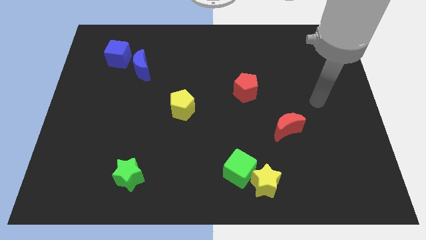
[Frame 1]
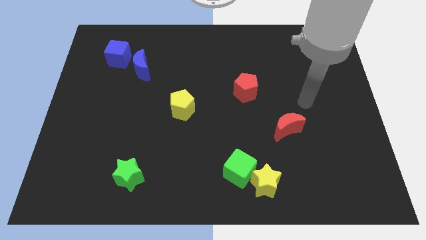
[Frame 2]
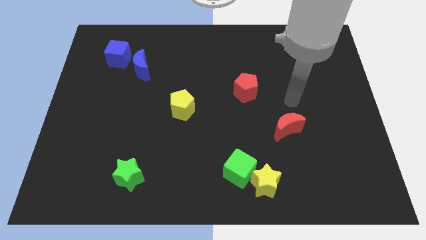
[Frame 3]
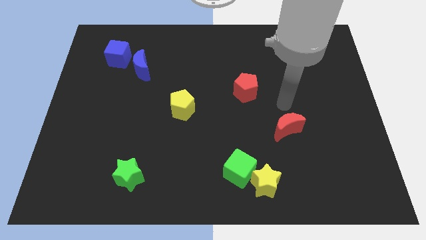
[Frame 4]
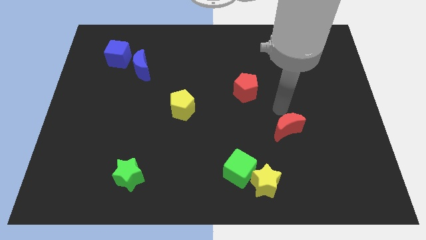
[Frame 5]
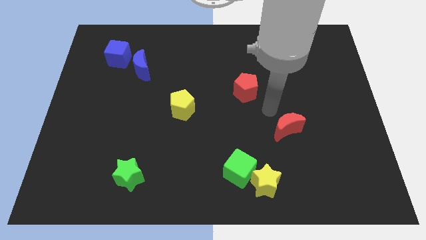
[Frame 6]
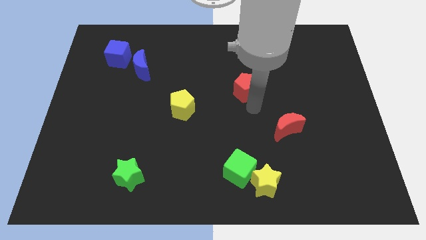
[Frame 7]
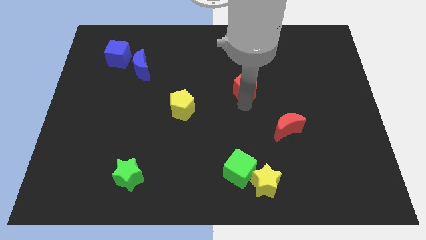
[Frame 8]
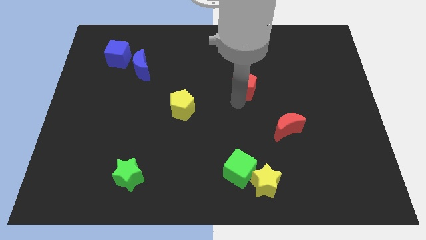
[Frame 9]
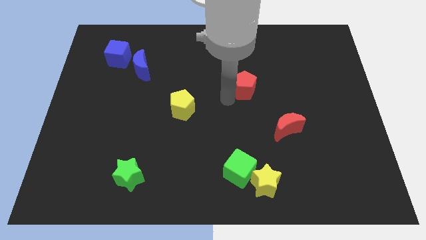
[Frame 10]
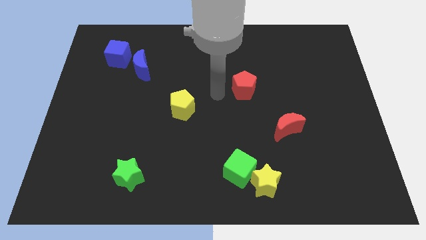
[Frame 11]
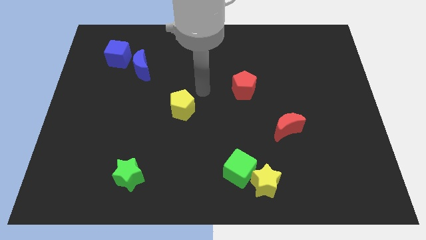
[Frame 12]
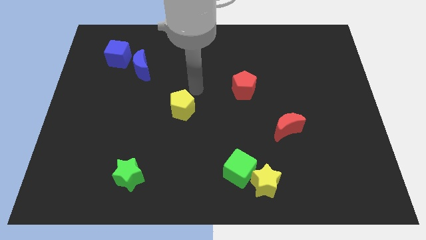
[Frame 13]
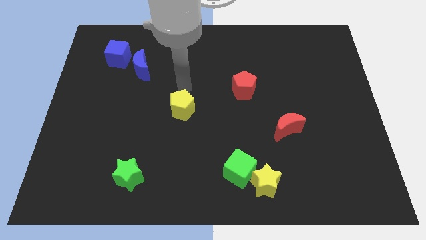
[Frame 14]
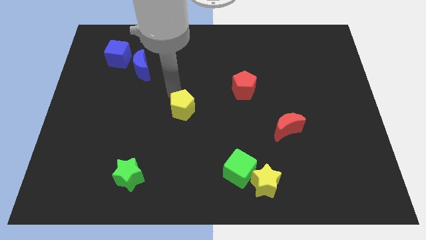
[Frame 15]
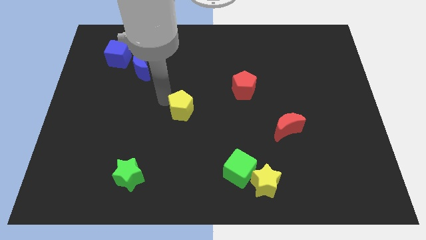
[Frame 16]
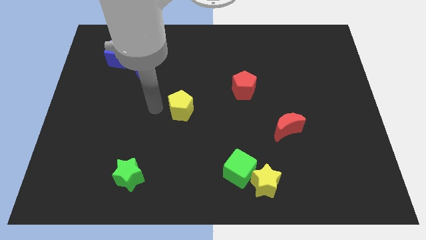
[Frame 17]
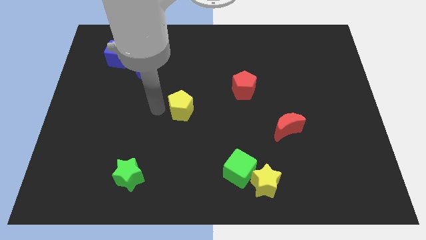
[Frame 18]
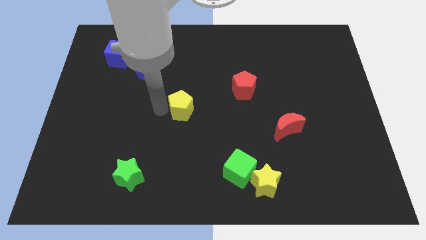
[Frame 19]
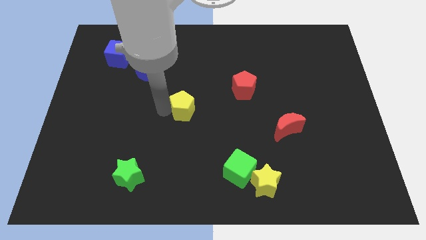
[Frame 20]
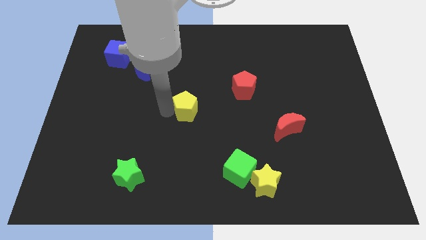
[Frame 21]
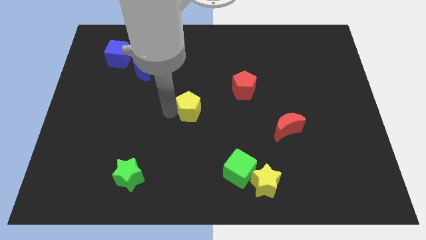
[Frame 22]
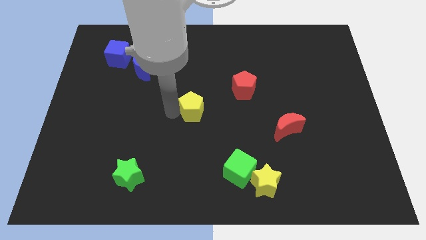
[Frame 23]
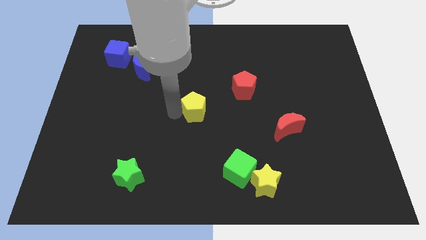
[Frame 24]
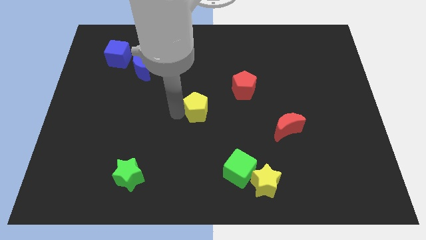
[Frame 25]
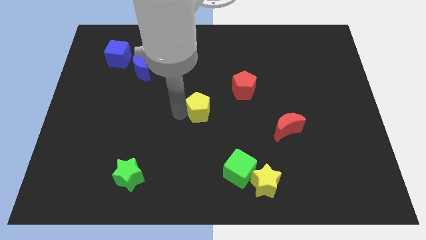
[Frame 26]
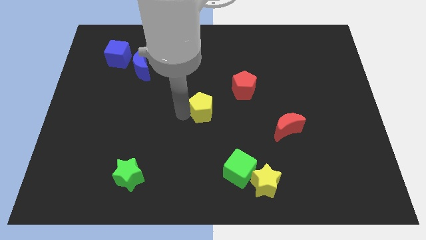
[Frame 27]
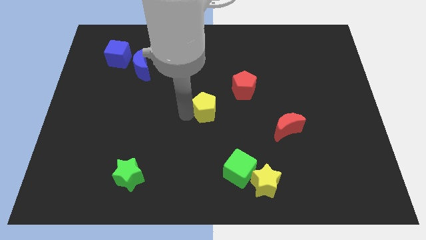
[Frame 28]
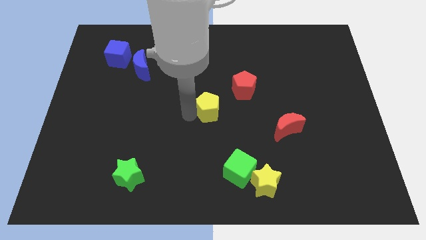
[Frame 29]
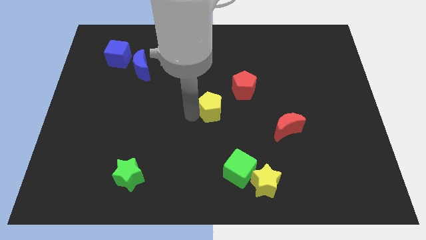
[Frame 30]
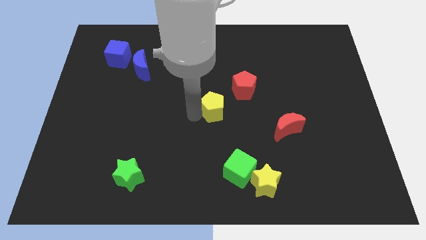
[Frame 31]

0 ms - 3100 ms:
move the yellow pentagon right a bit

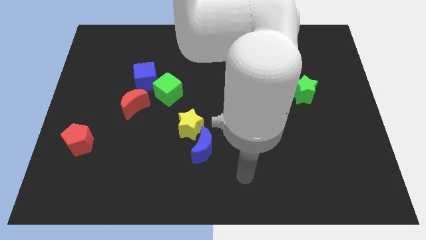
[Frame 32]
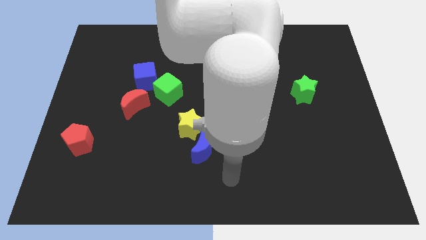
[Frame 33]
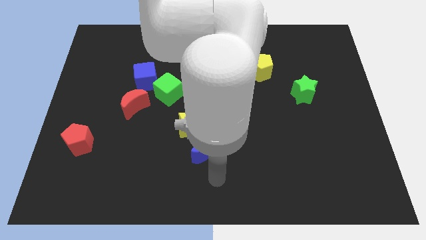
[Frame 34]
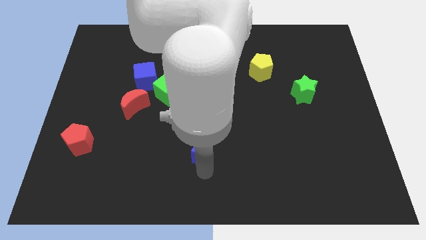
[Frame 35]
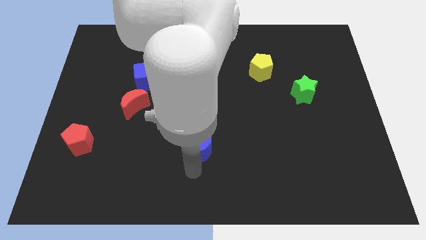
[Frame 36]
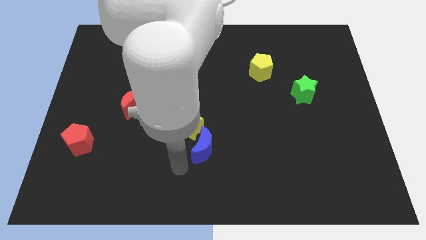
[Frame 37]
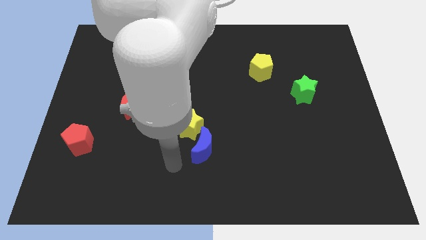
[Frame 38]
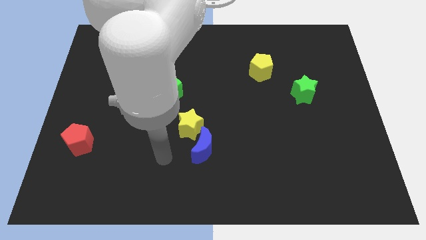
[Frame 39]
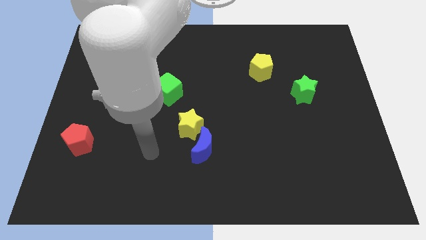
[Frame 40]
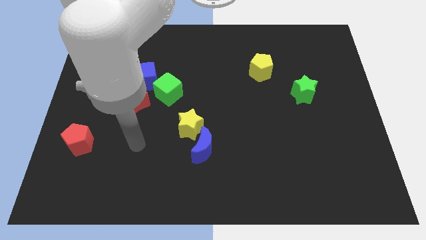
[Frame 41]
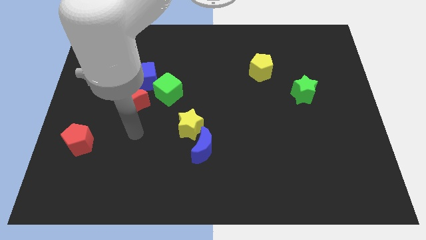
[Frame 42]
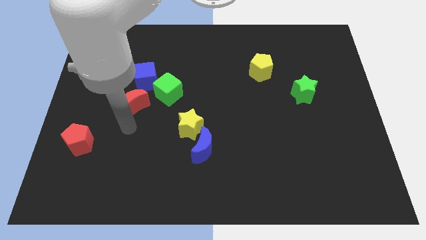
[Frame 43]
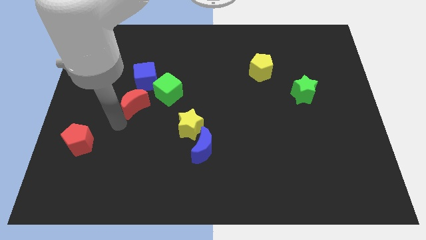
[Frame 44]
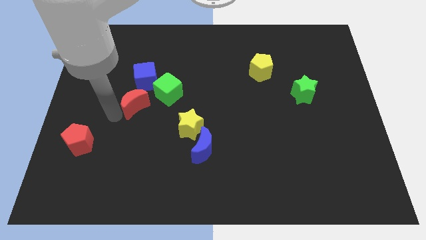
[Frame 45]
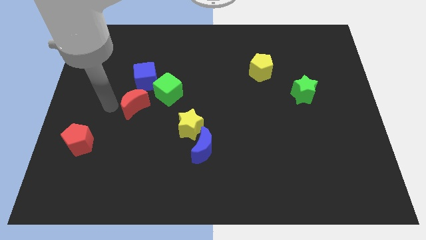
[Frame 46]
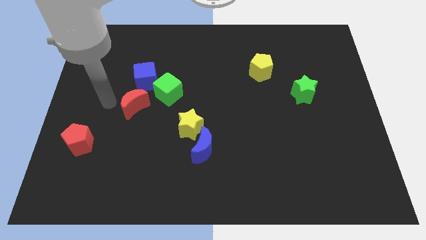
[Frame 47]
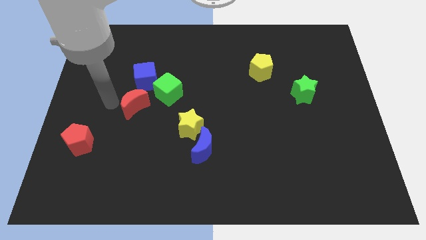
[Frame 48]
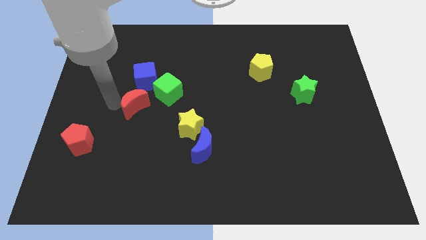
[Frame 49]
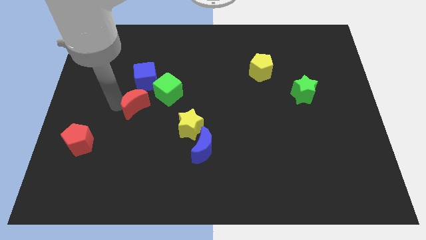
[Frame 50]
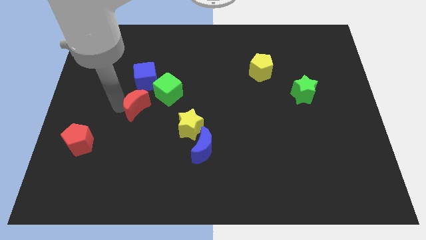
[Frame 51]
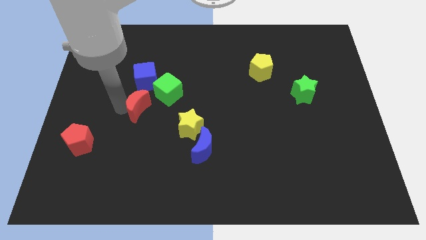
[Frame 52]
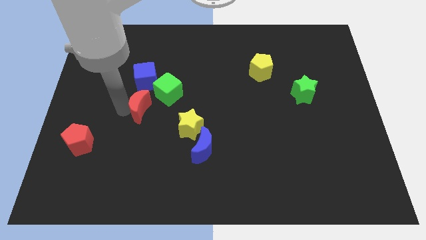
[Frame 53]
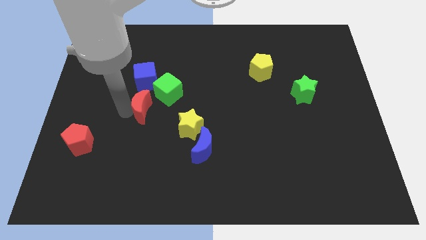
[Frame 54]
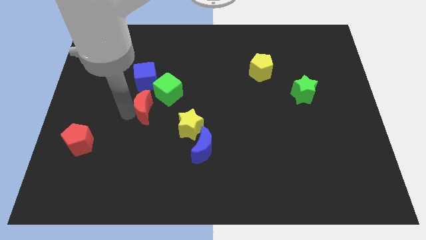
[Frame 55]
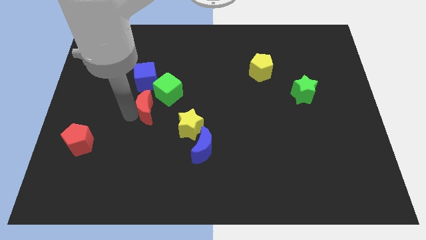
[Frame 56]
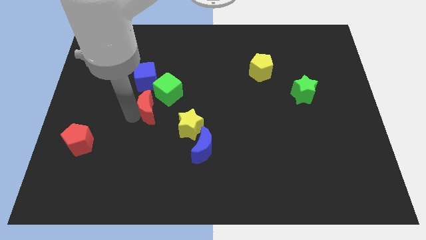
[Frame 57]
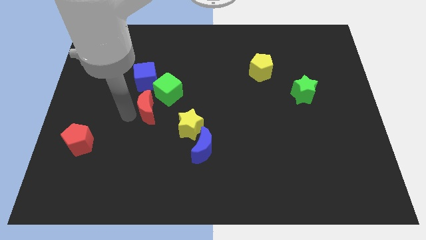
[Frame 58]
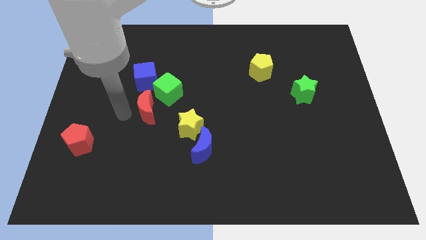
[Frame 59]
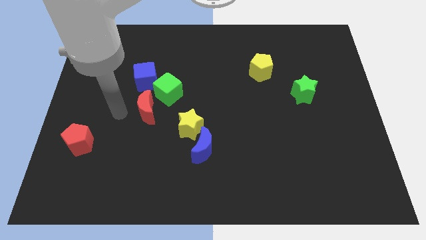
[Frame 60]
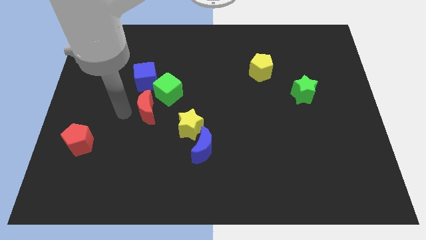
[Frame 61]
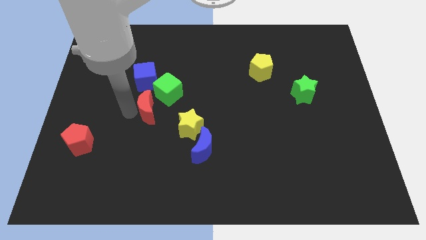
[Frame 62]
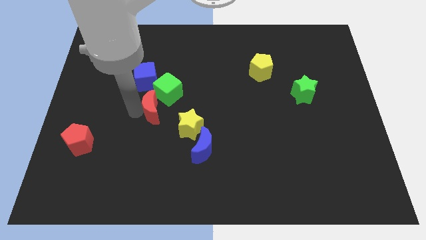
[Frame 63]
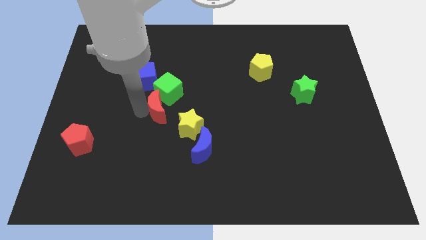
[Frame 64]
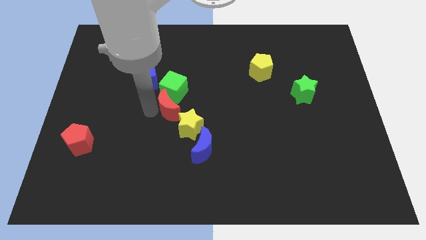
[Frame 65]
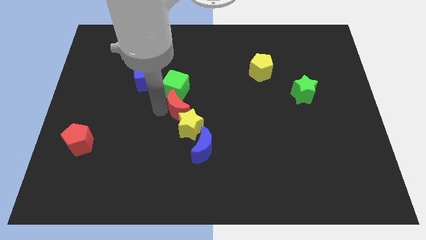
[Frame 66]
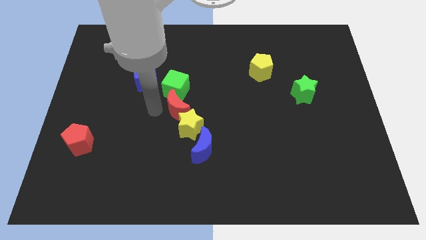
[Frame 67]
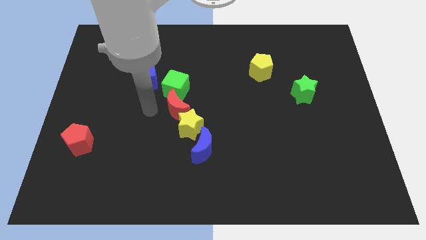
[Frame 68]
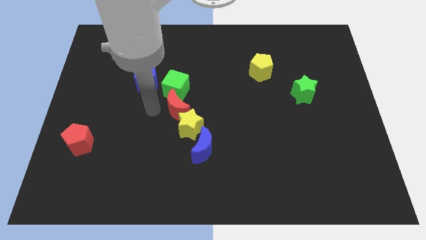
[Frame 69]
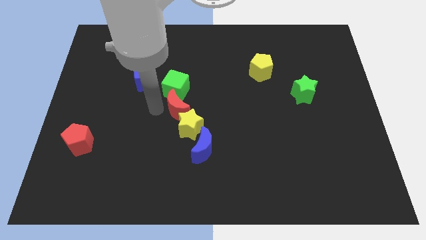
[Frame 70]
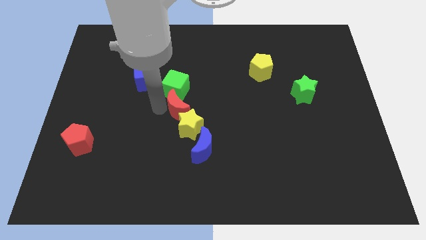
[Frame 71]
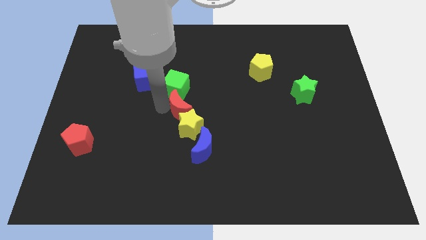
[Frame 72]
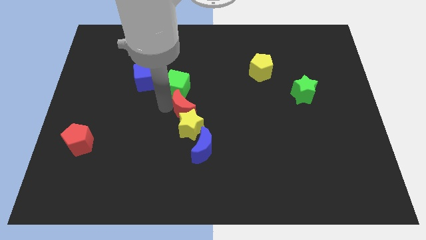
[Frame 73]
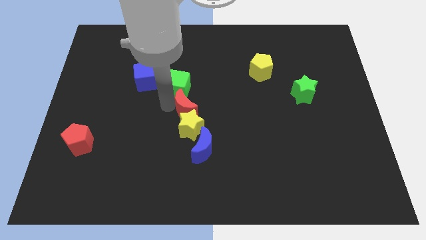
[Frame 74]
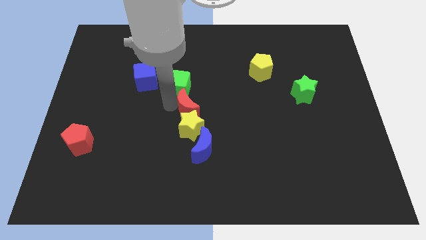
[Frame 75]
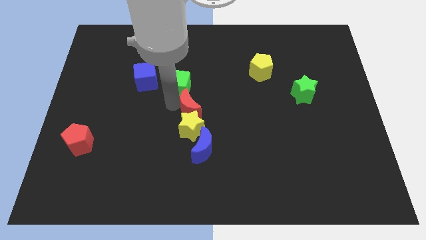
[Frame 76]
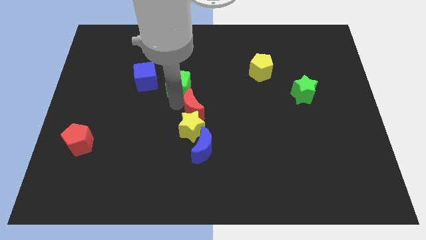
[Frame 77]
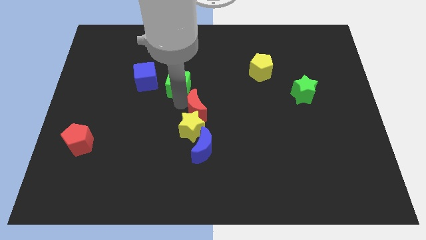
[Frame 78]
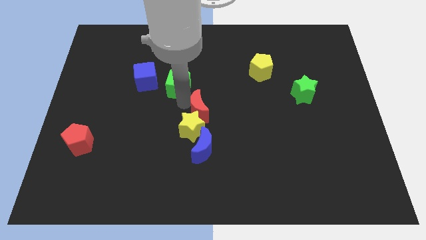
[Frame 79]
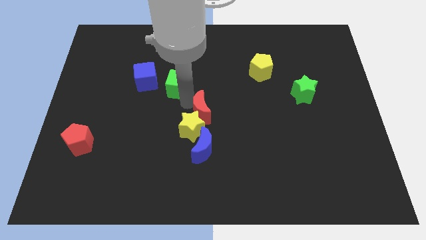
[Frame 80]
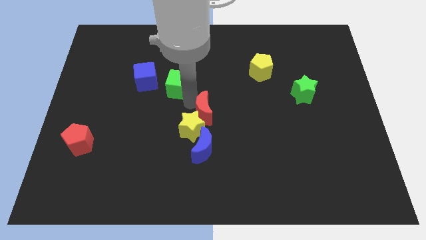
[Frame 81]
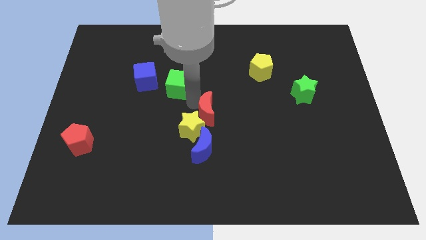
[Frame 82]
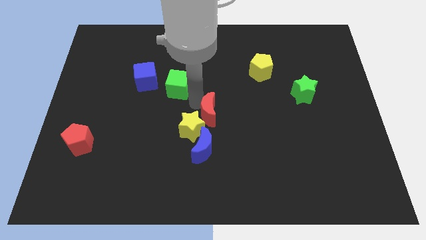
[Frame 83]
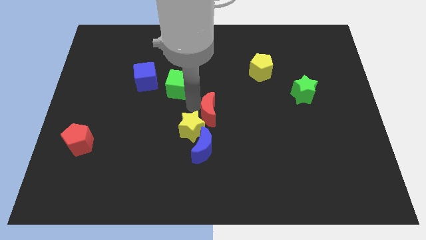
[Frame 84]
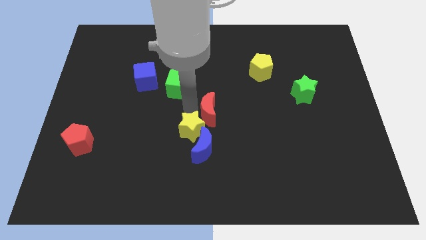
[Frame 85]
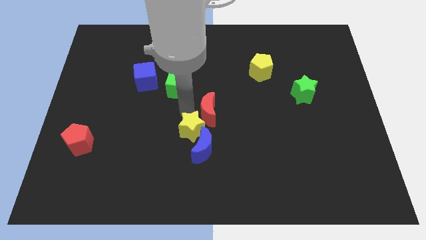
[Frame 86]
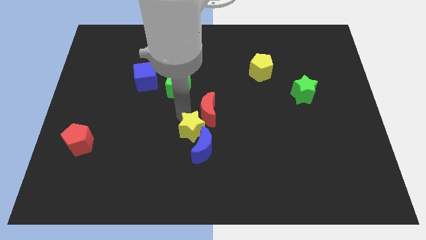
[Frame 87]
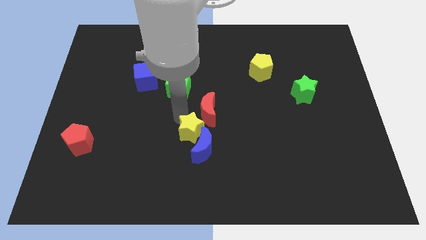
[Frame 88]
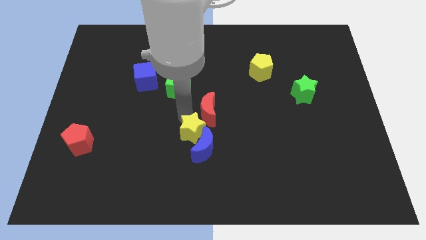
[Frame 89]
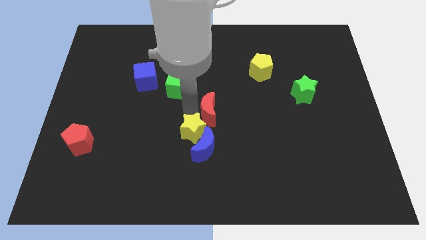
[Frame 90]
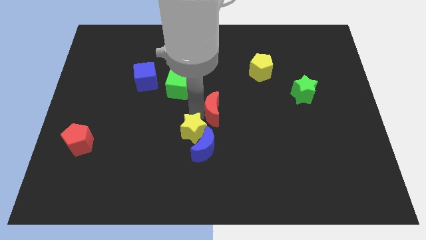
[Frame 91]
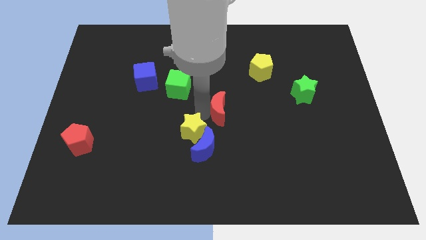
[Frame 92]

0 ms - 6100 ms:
push the red moon to the right
